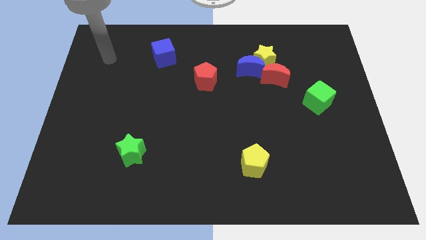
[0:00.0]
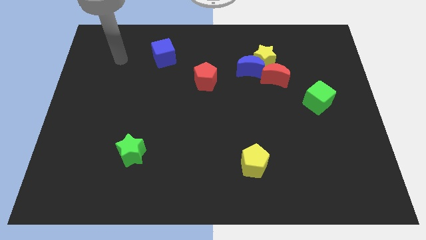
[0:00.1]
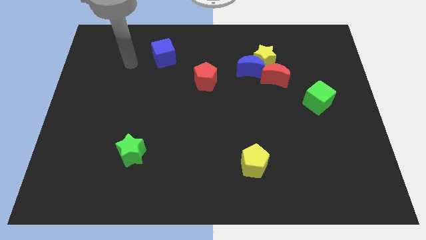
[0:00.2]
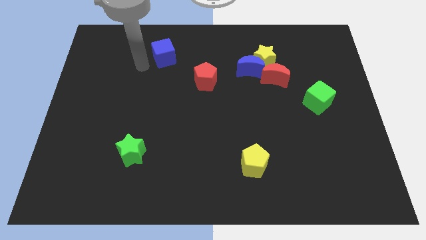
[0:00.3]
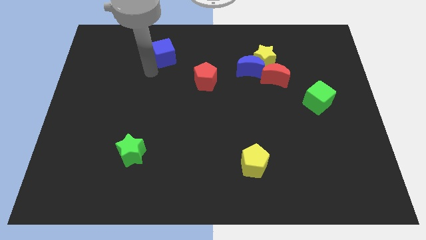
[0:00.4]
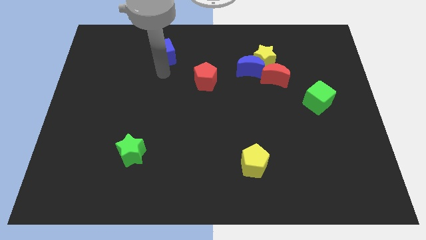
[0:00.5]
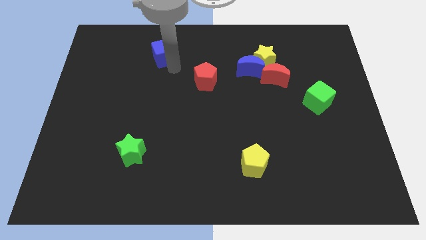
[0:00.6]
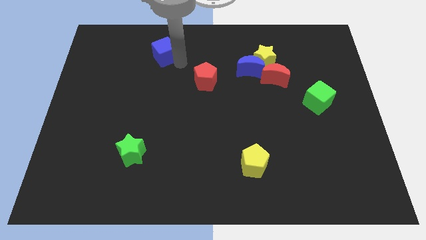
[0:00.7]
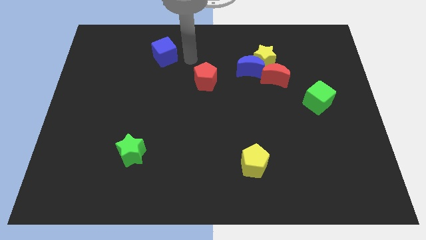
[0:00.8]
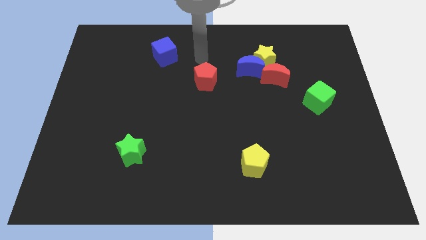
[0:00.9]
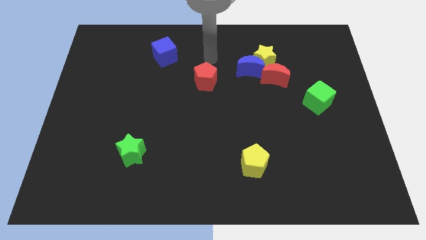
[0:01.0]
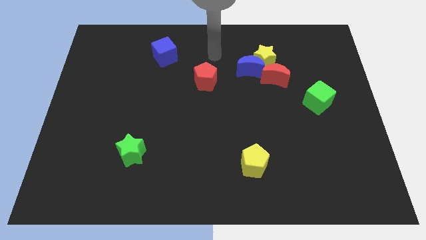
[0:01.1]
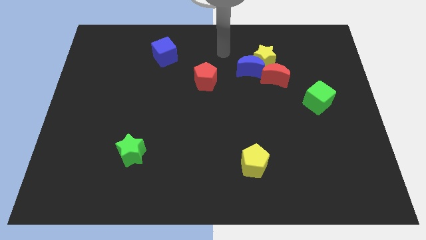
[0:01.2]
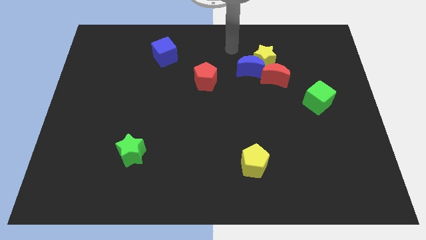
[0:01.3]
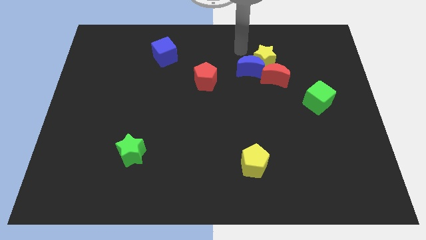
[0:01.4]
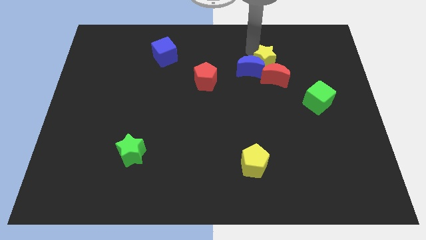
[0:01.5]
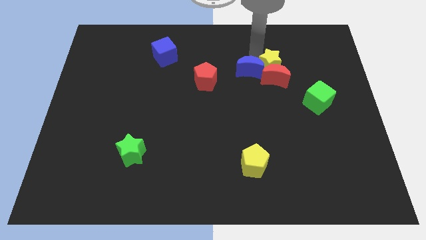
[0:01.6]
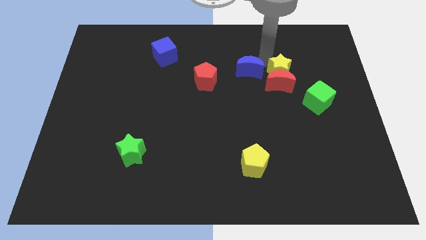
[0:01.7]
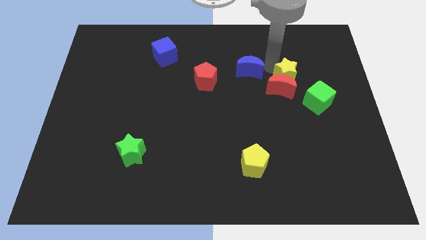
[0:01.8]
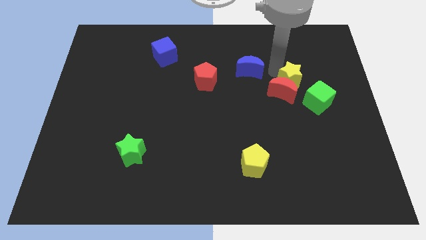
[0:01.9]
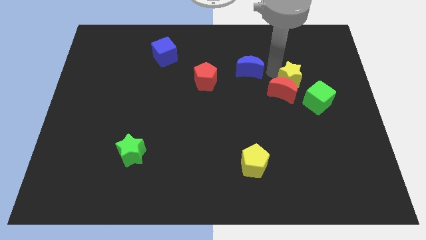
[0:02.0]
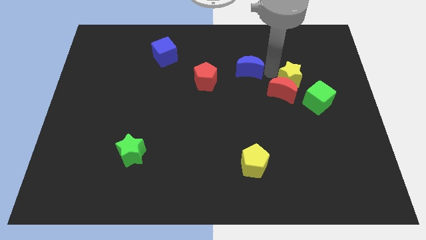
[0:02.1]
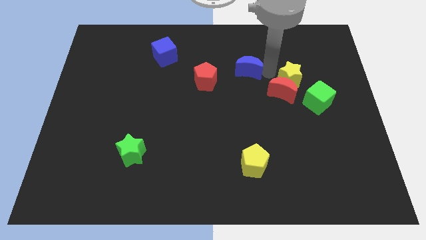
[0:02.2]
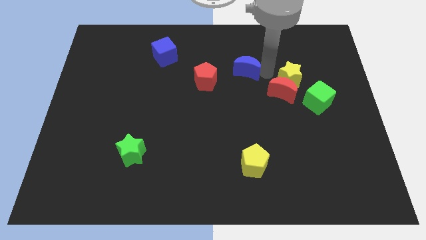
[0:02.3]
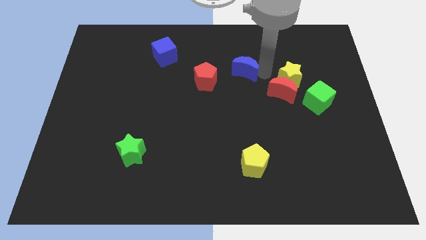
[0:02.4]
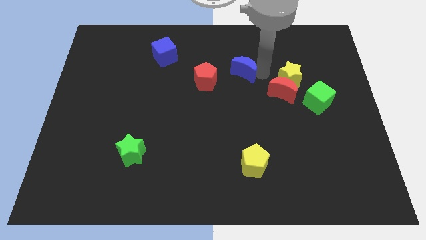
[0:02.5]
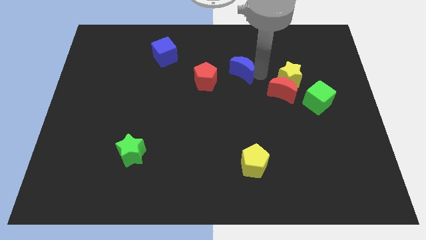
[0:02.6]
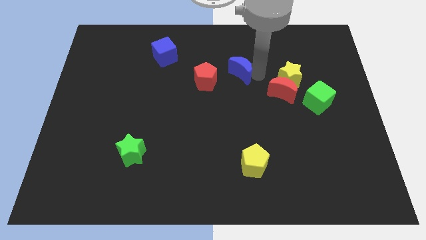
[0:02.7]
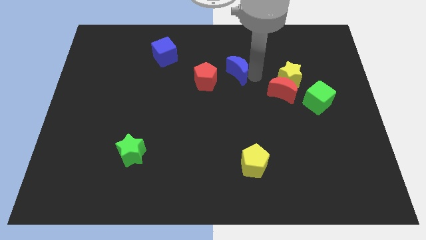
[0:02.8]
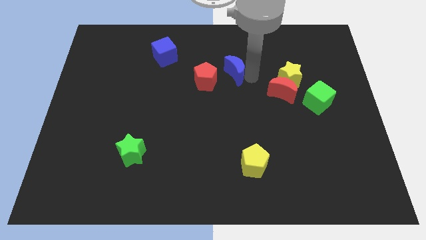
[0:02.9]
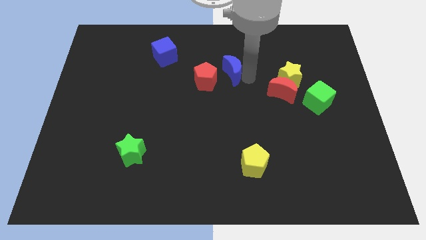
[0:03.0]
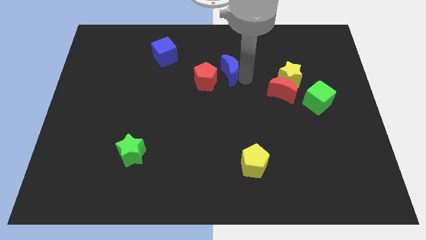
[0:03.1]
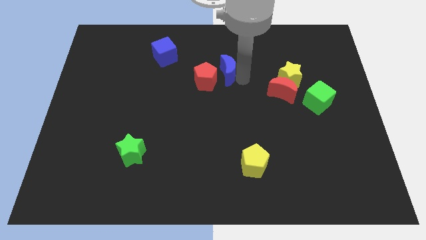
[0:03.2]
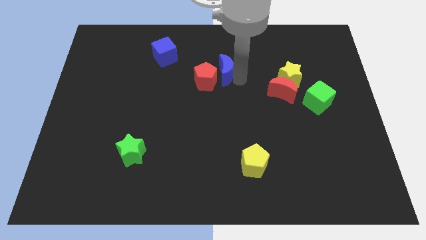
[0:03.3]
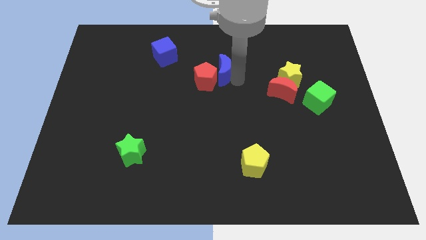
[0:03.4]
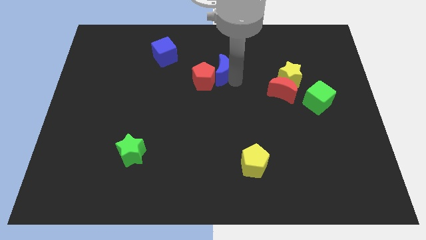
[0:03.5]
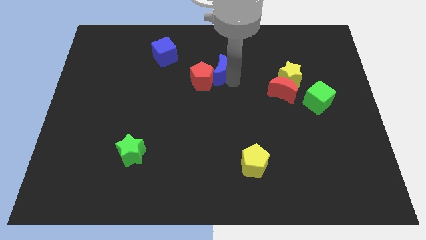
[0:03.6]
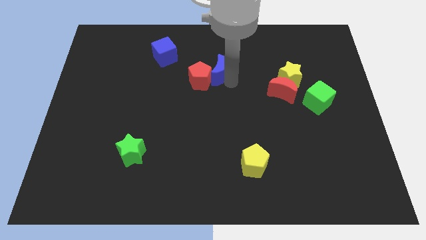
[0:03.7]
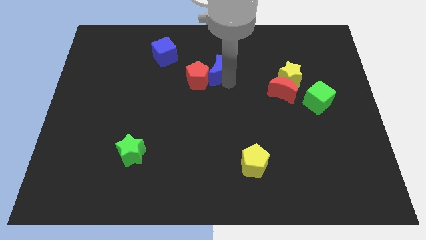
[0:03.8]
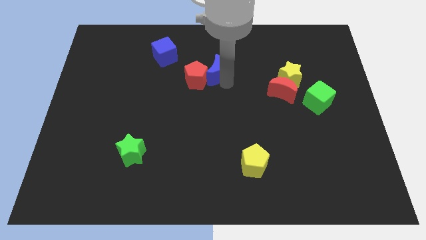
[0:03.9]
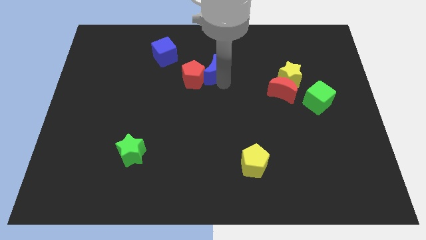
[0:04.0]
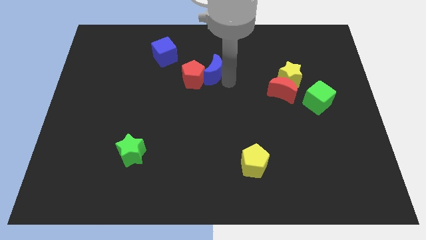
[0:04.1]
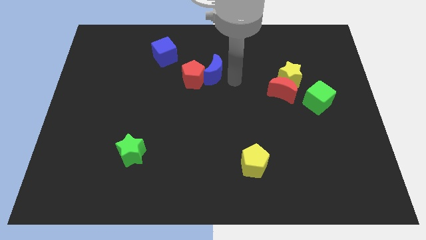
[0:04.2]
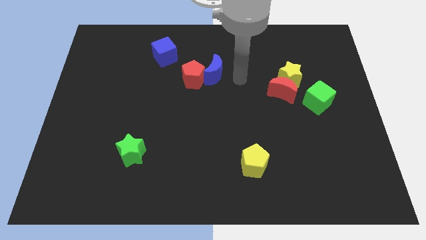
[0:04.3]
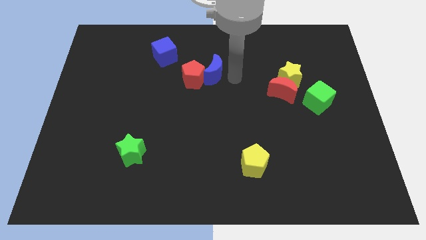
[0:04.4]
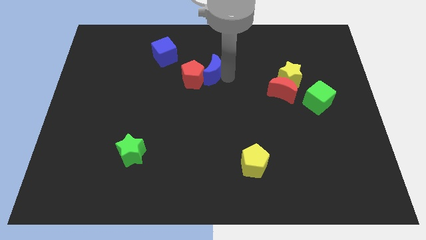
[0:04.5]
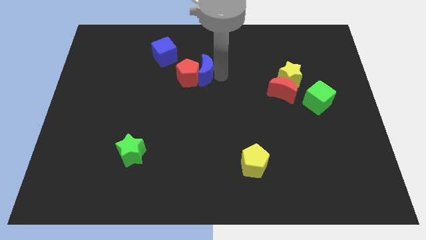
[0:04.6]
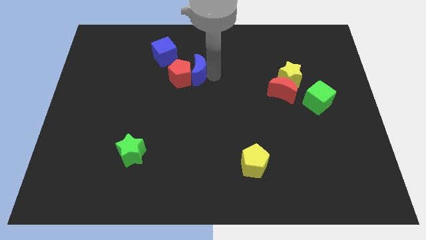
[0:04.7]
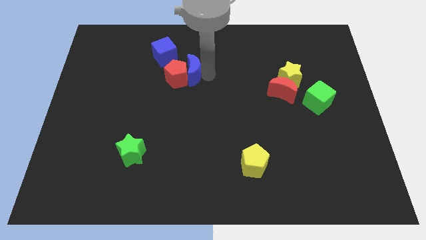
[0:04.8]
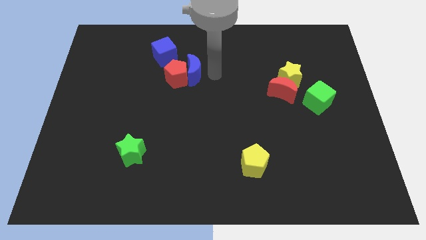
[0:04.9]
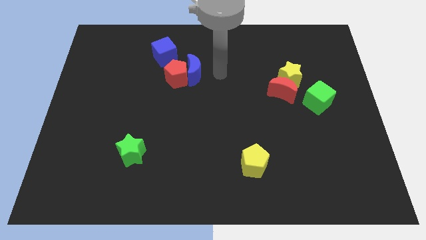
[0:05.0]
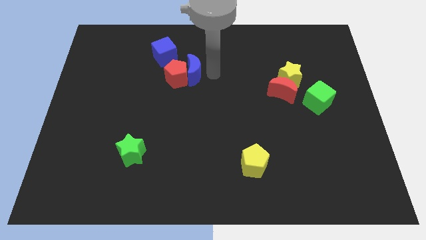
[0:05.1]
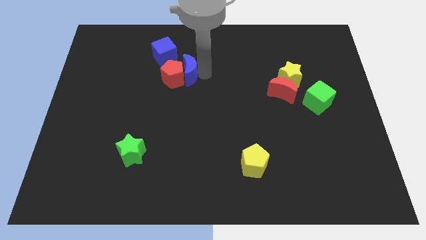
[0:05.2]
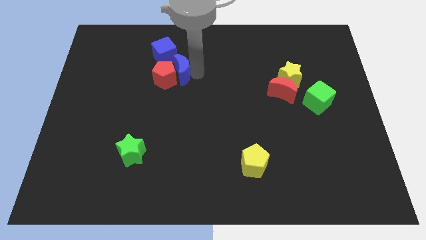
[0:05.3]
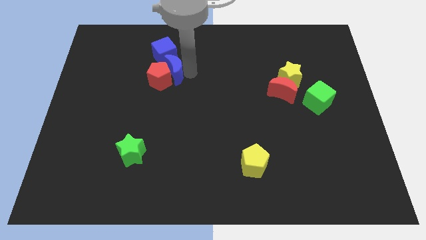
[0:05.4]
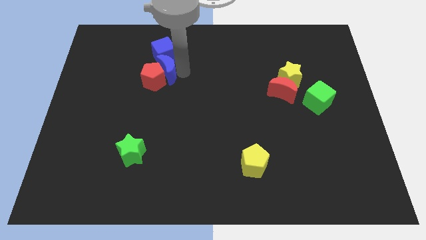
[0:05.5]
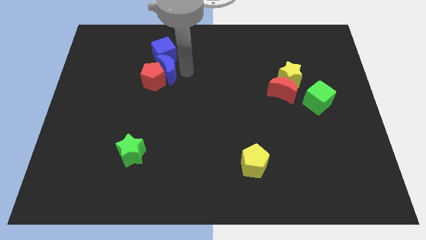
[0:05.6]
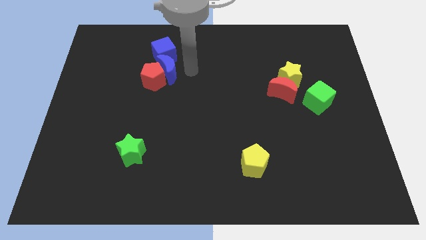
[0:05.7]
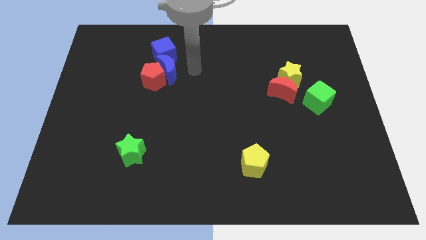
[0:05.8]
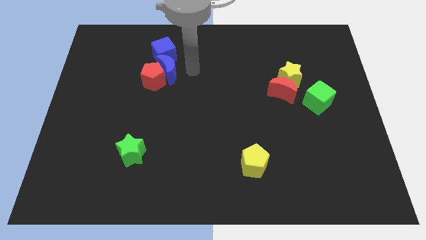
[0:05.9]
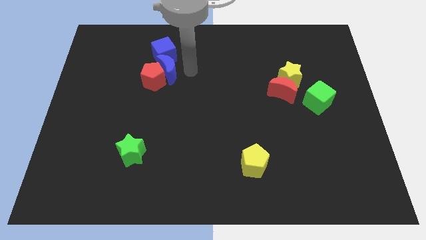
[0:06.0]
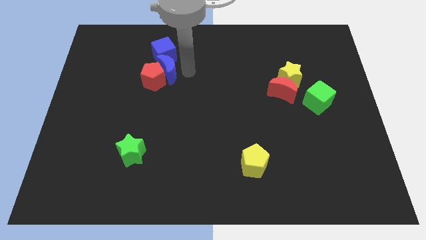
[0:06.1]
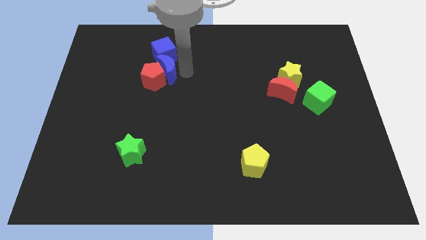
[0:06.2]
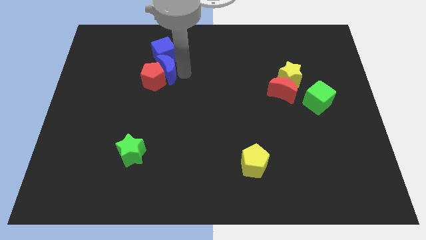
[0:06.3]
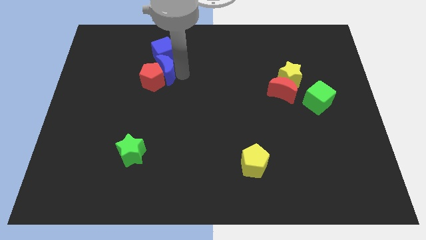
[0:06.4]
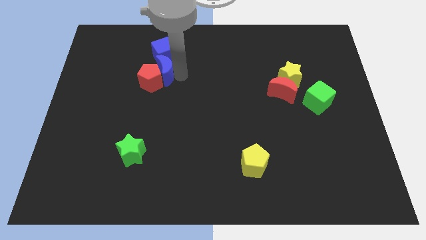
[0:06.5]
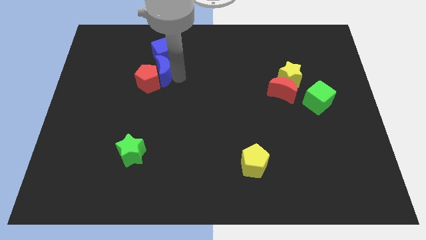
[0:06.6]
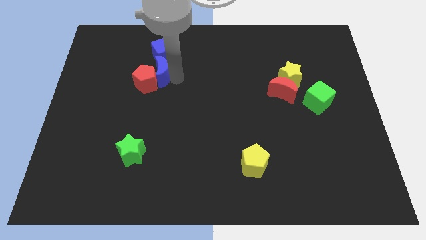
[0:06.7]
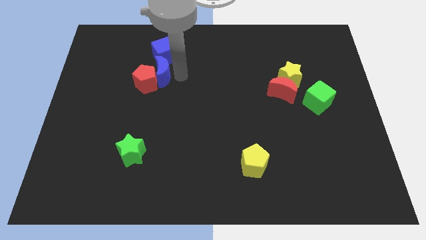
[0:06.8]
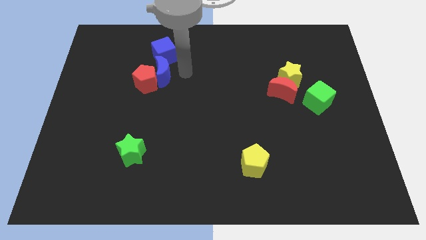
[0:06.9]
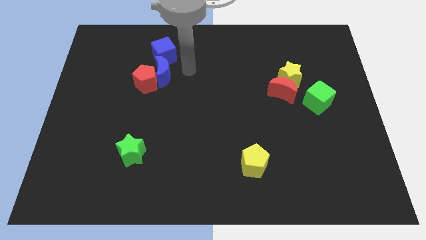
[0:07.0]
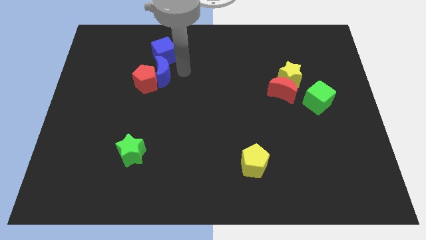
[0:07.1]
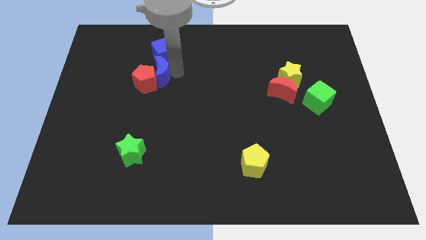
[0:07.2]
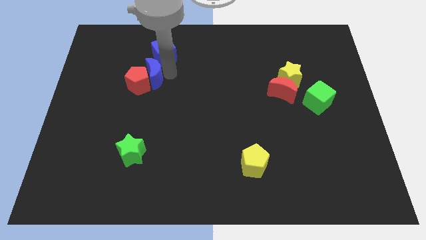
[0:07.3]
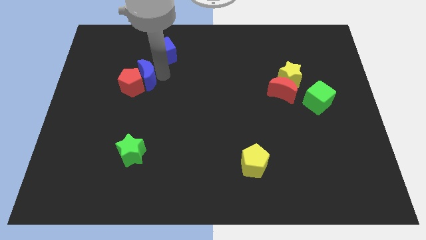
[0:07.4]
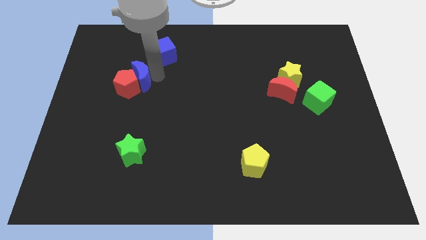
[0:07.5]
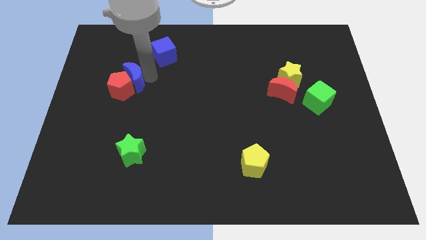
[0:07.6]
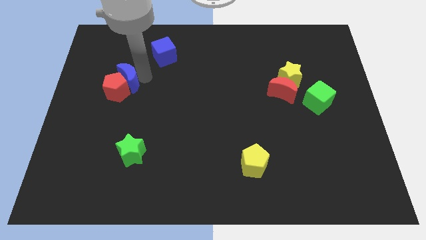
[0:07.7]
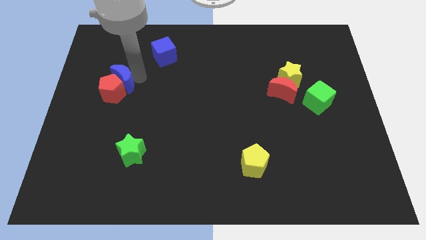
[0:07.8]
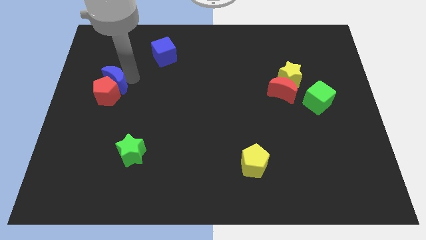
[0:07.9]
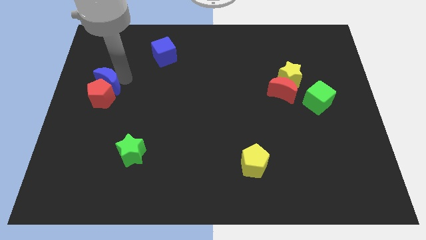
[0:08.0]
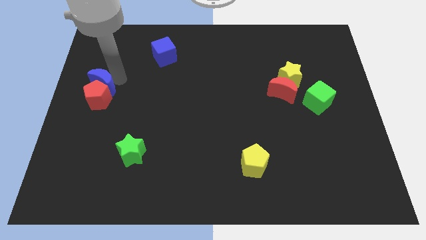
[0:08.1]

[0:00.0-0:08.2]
push the blue moon to the left side of the board
